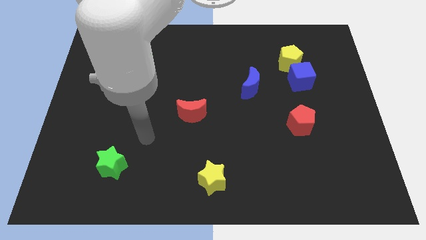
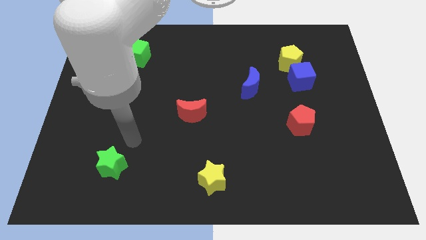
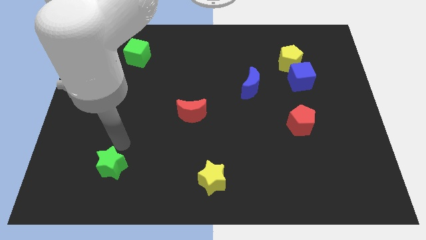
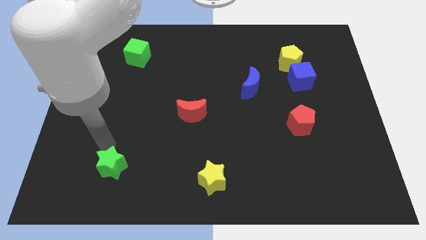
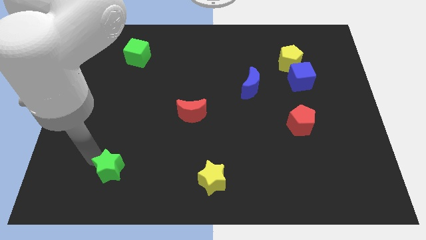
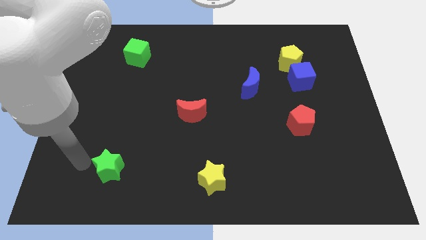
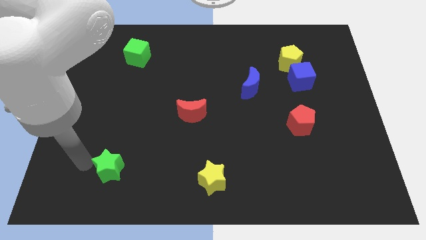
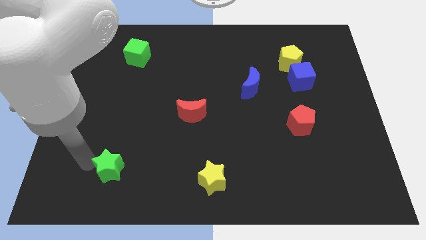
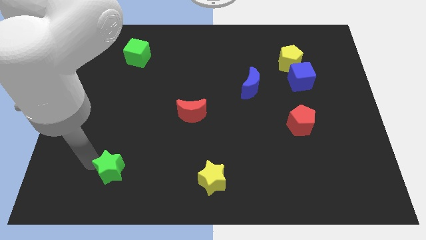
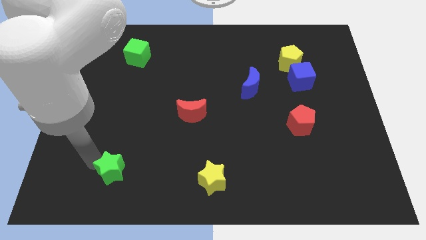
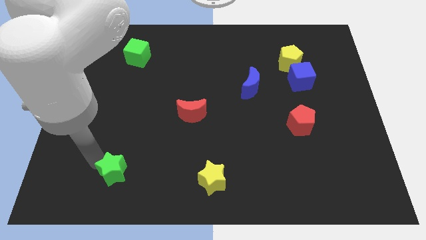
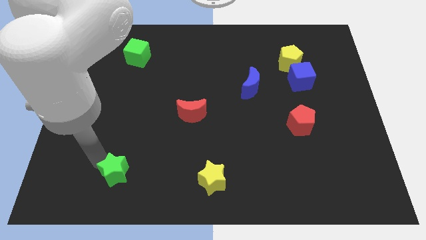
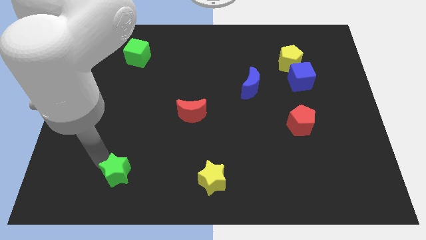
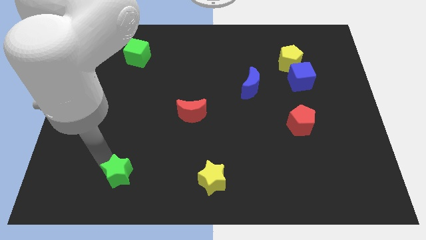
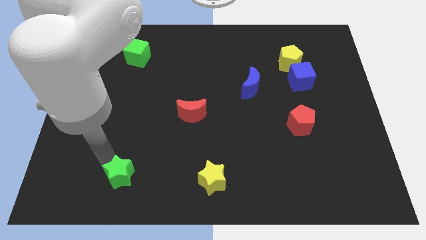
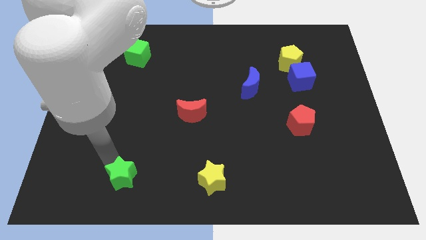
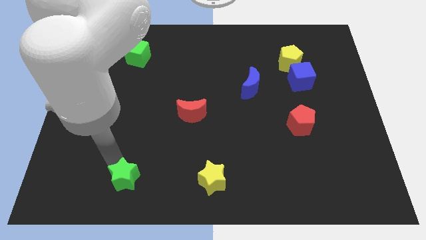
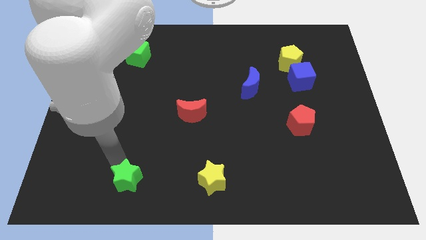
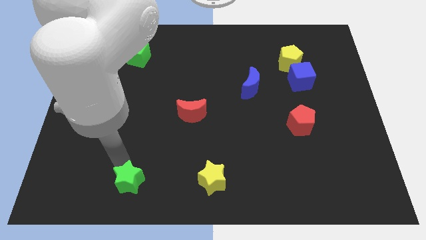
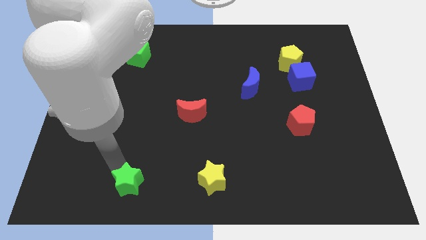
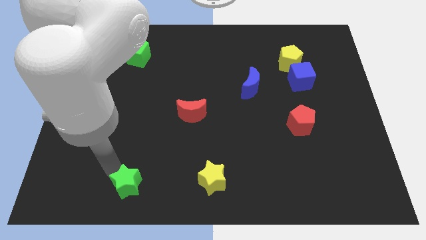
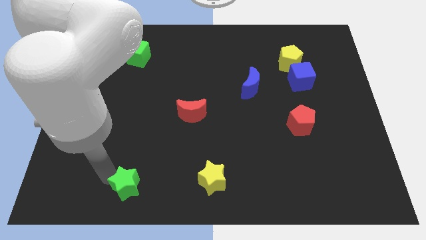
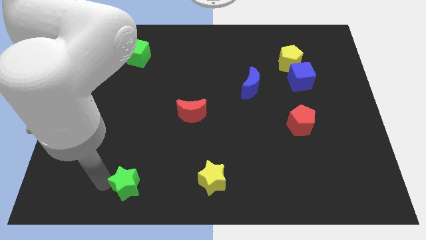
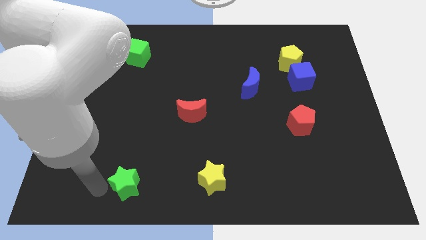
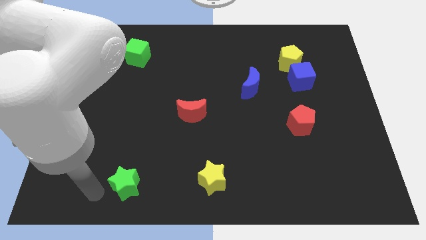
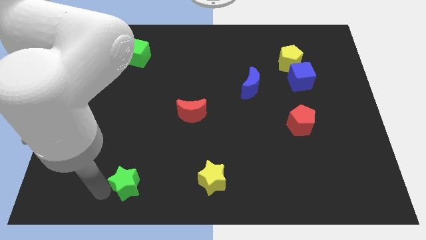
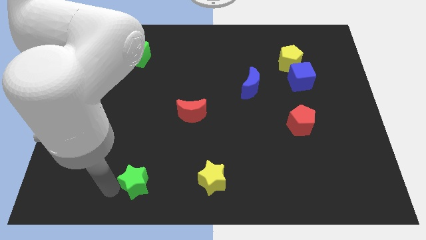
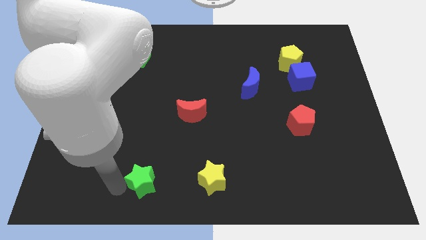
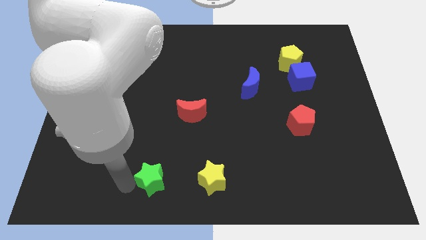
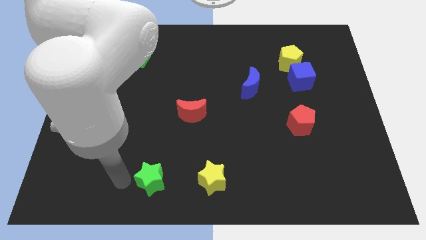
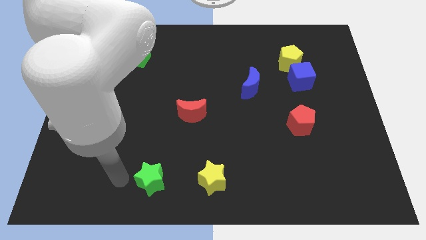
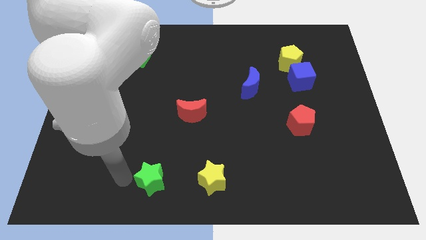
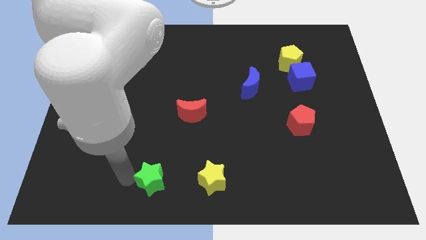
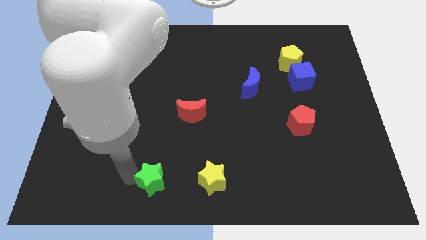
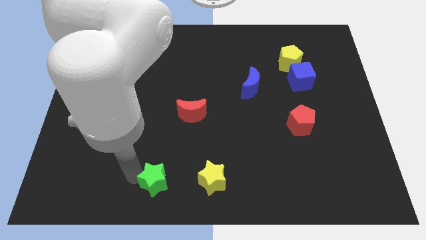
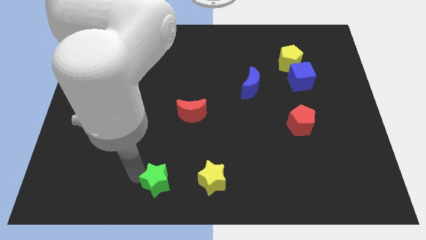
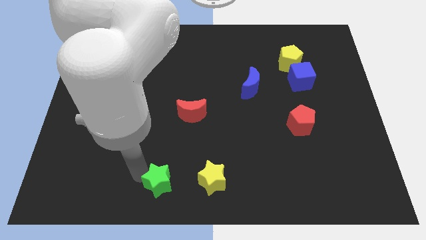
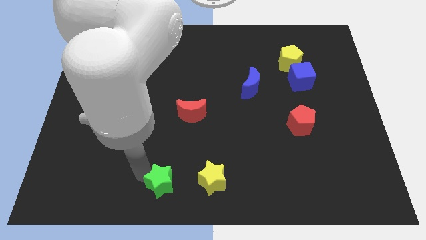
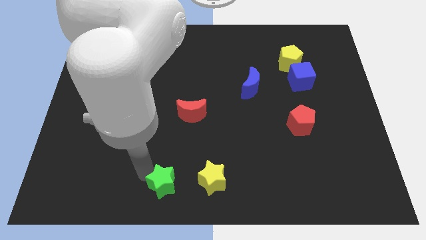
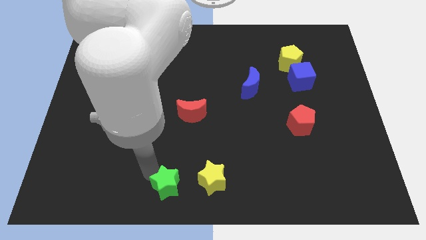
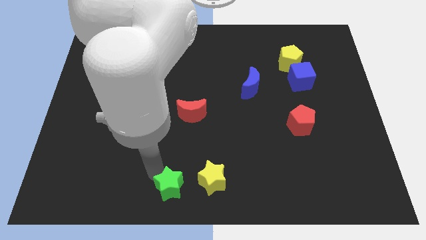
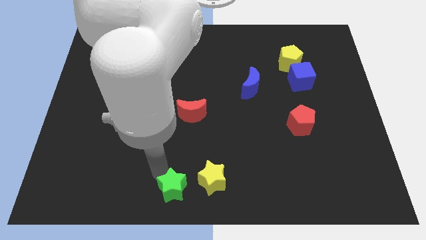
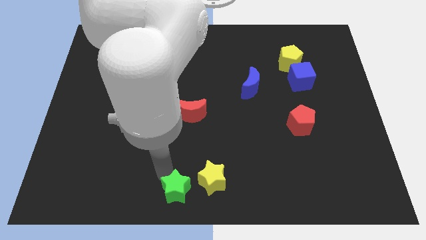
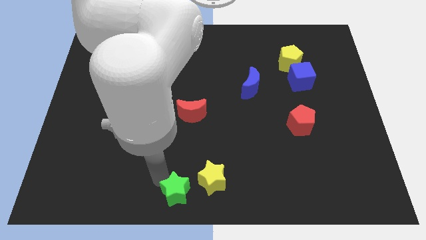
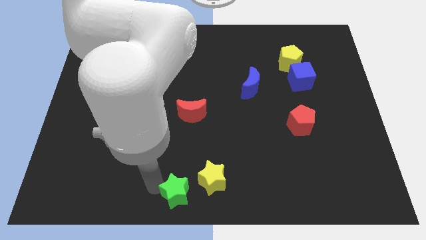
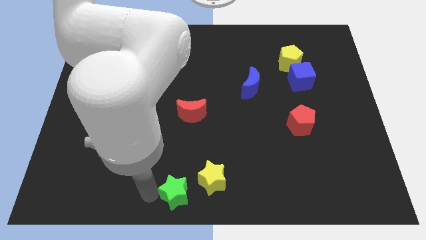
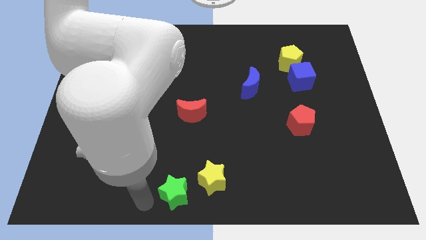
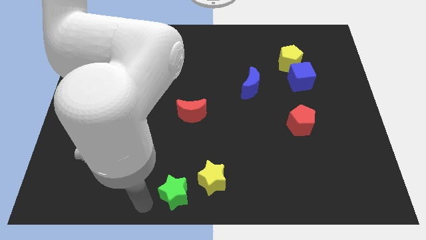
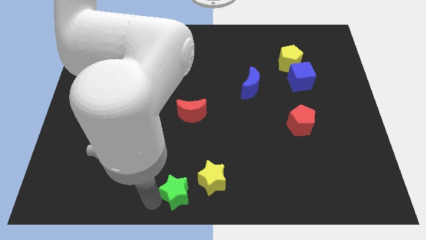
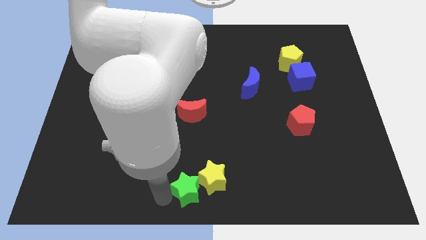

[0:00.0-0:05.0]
push the green star next to the yellow star

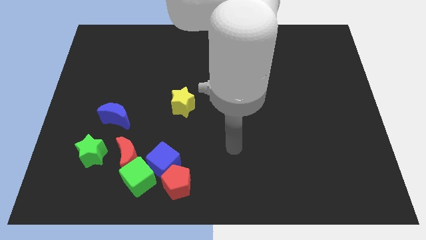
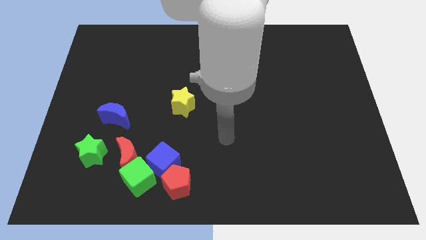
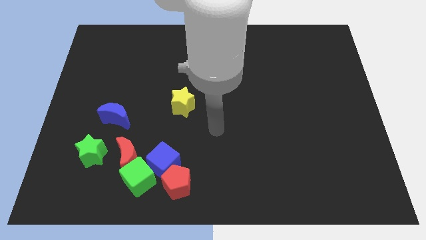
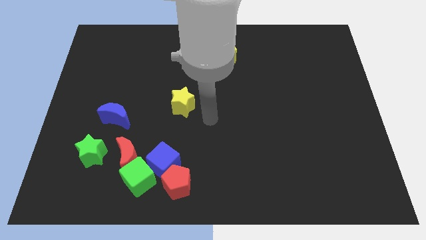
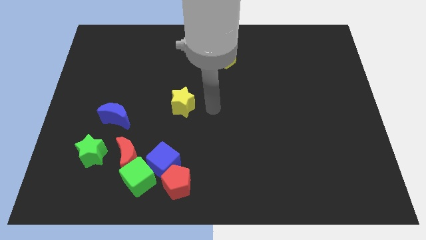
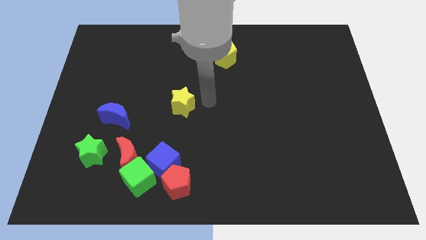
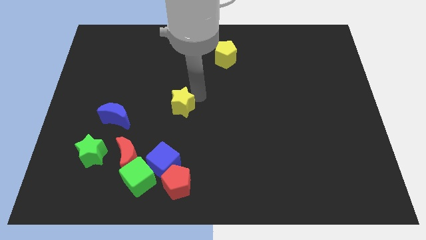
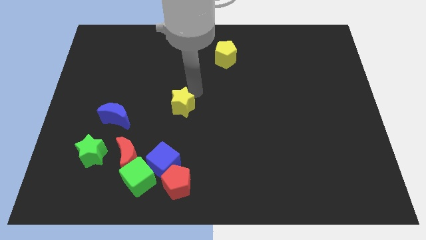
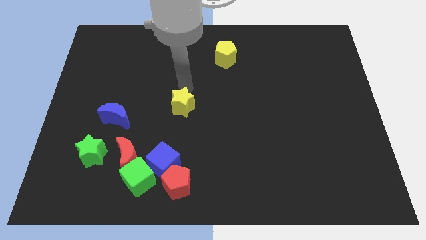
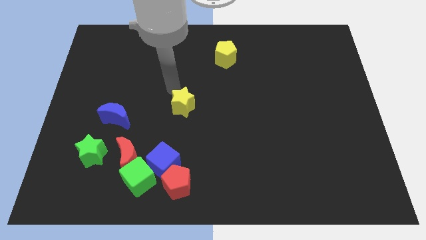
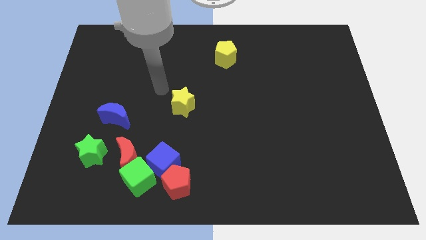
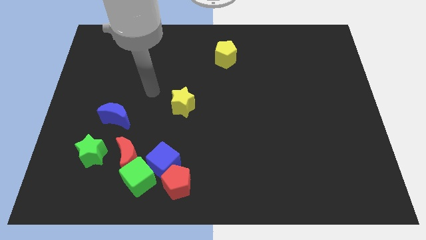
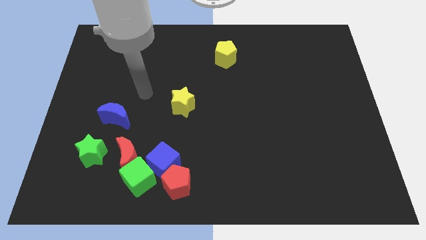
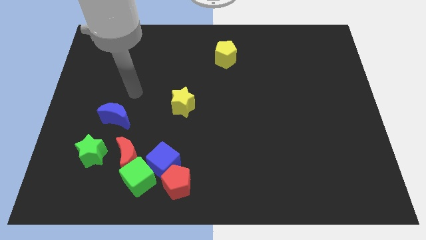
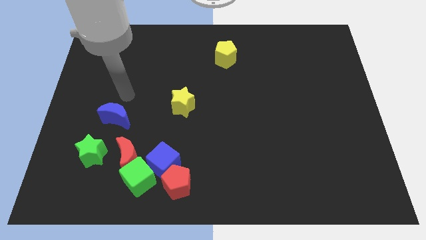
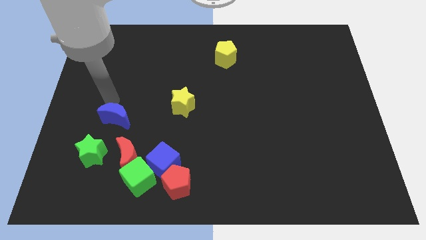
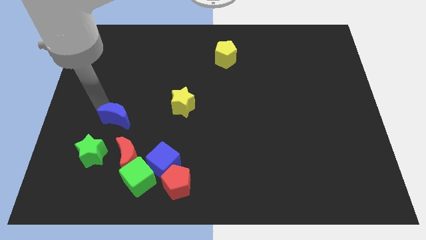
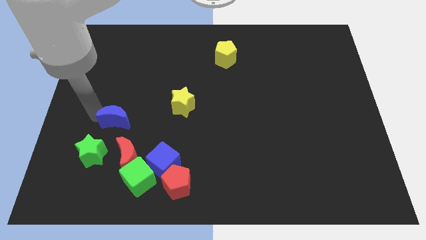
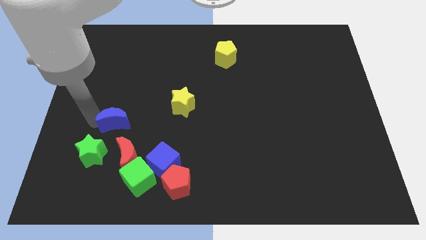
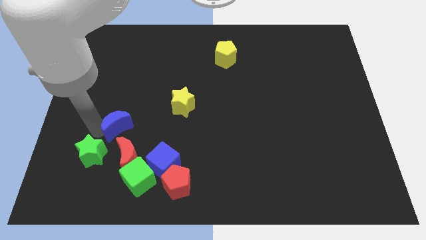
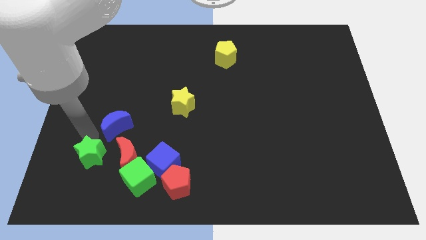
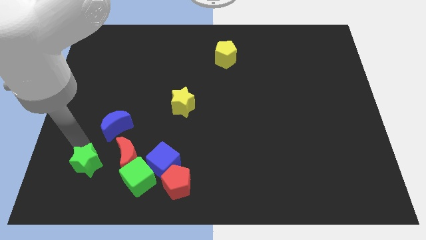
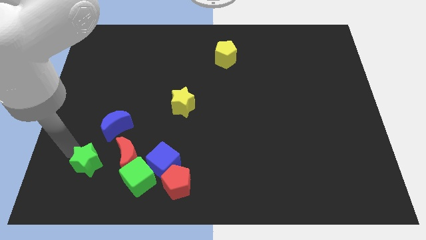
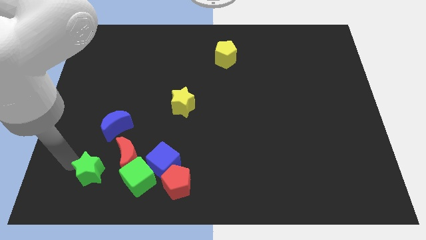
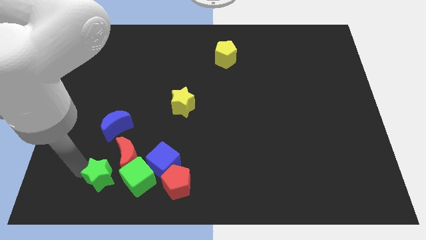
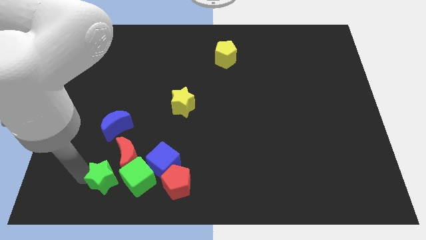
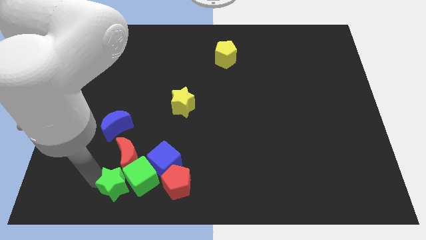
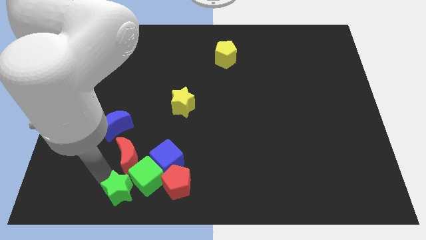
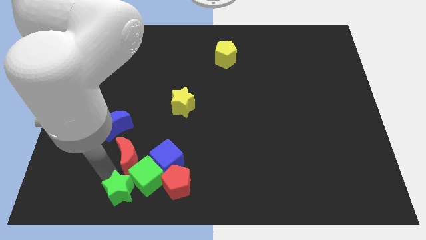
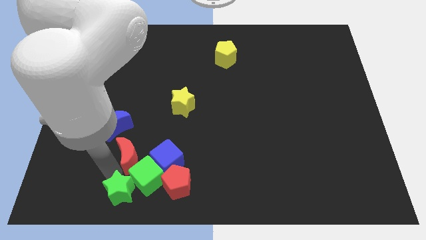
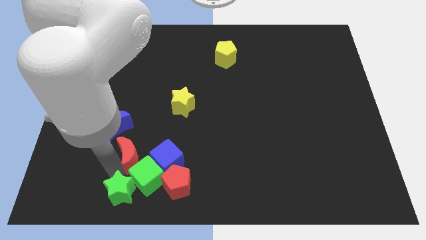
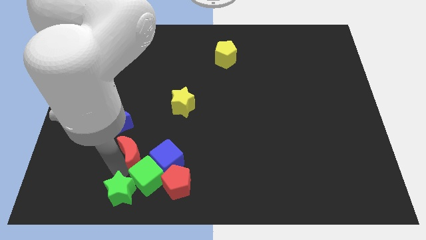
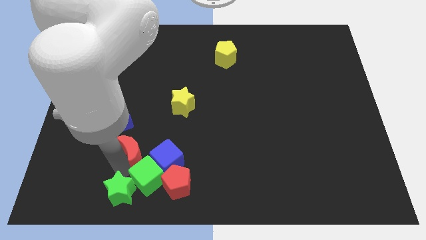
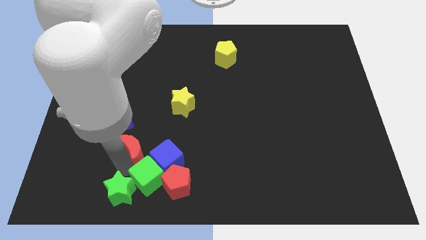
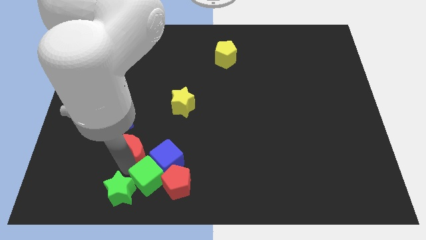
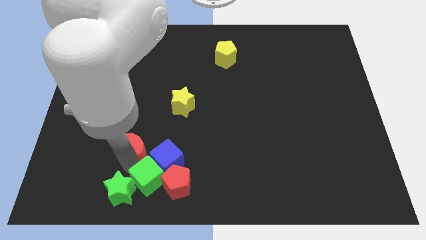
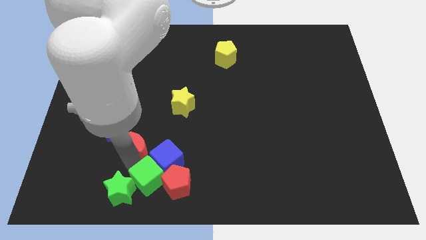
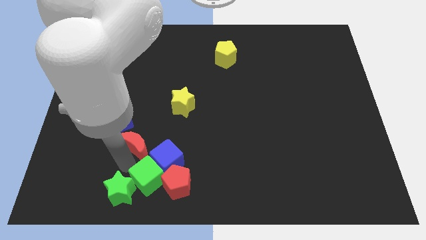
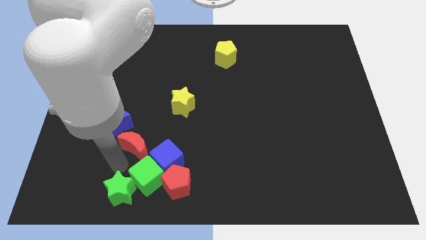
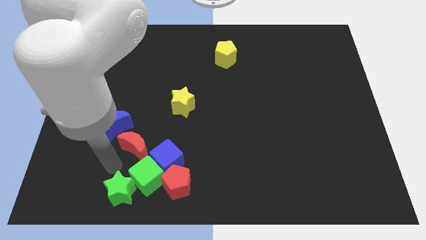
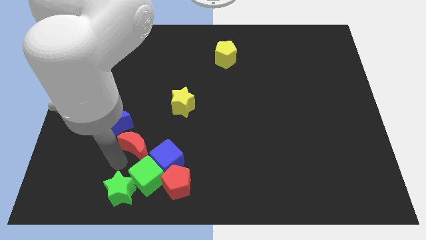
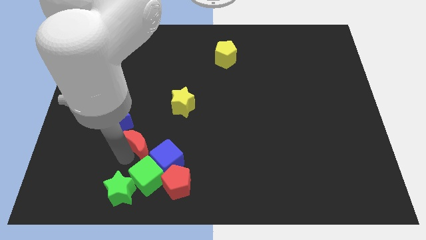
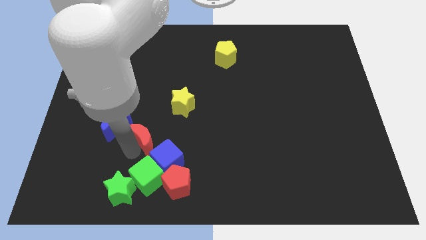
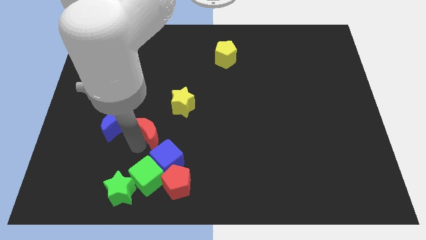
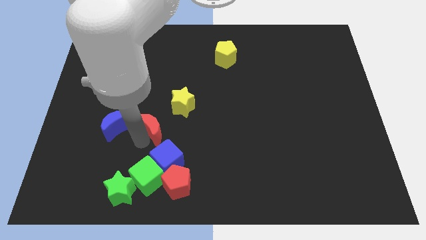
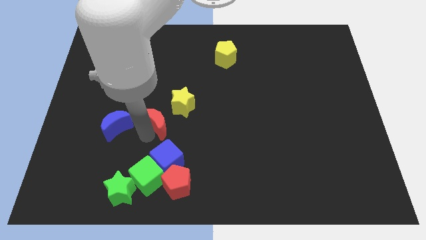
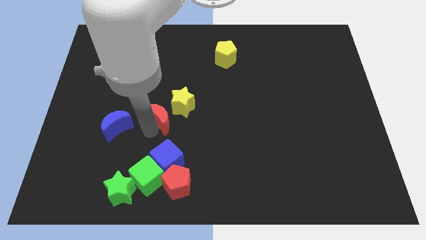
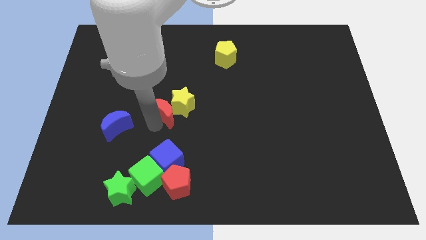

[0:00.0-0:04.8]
push the red moon close to the yellow star
